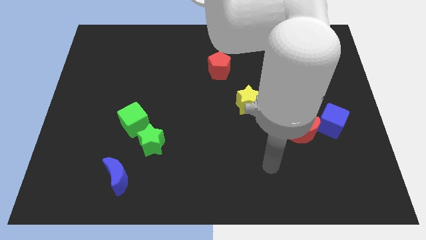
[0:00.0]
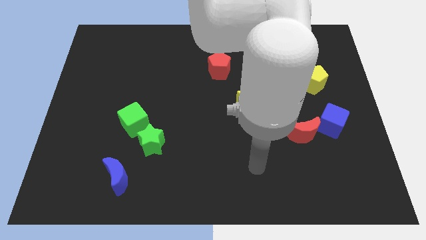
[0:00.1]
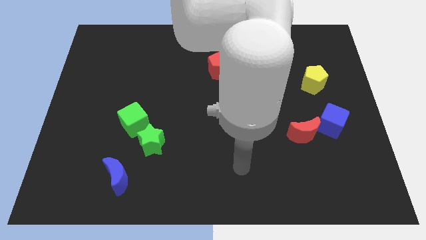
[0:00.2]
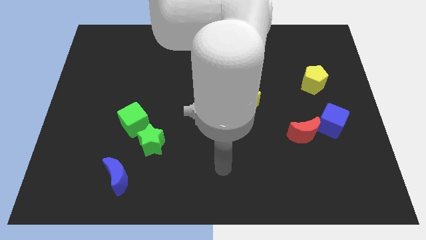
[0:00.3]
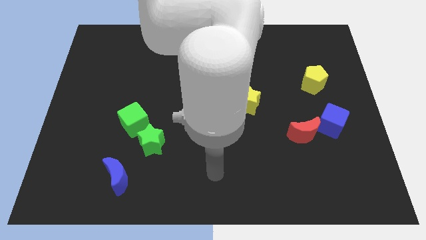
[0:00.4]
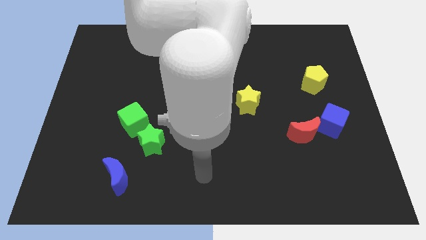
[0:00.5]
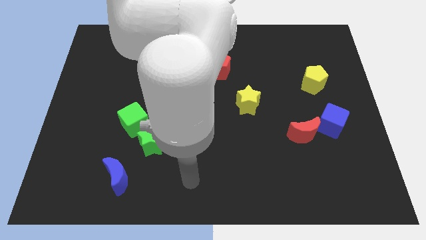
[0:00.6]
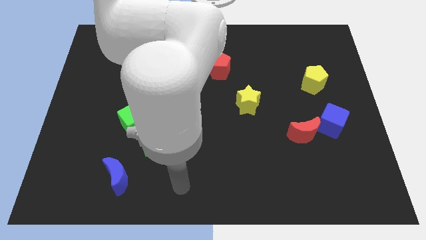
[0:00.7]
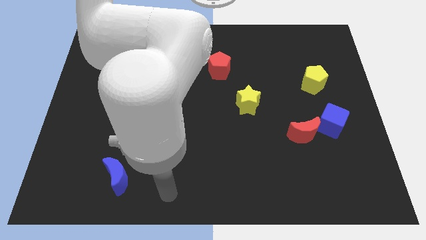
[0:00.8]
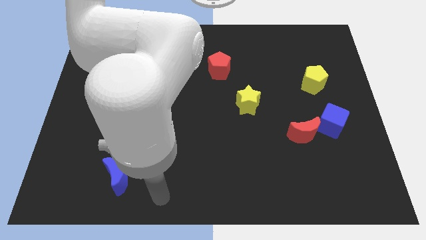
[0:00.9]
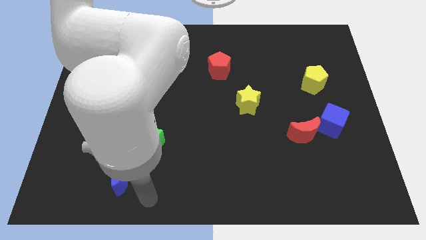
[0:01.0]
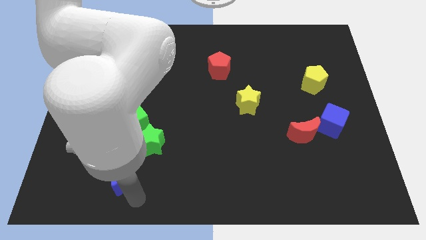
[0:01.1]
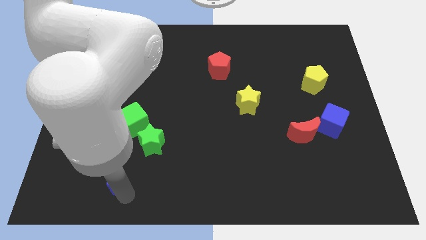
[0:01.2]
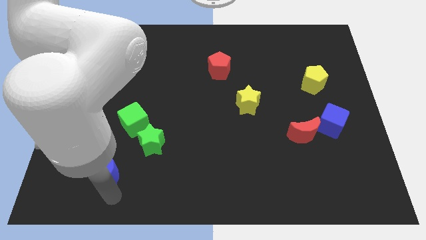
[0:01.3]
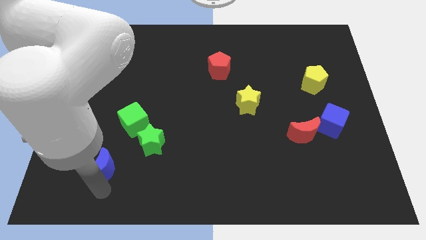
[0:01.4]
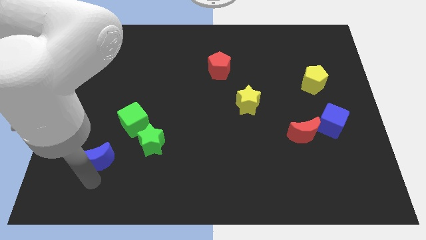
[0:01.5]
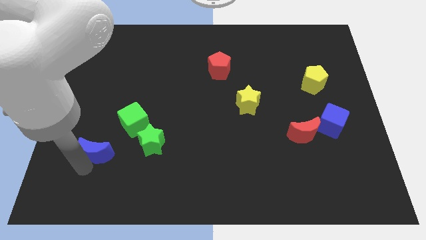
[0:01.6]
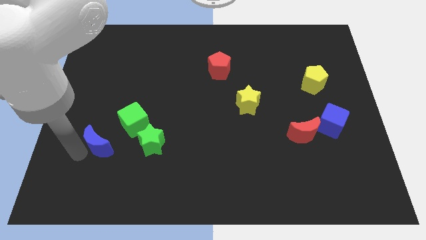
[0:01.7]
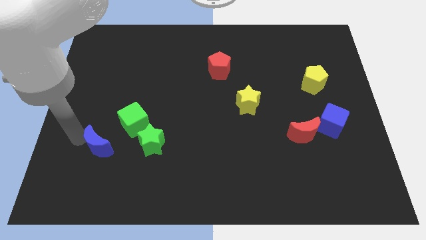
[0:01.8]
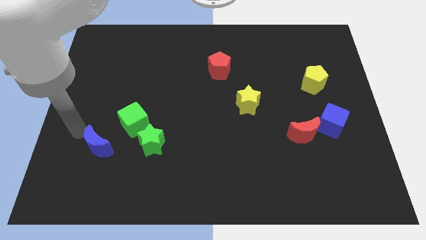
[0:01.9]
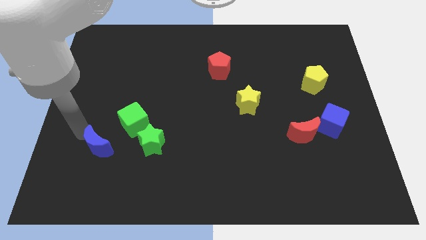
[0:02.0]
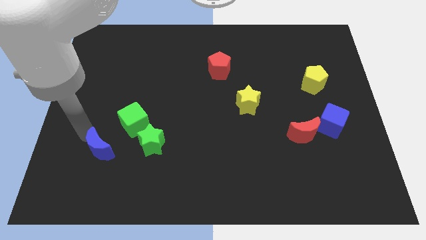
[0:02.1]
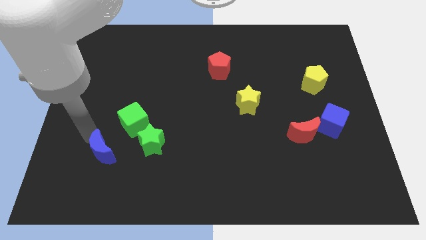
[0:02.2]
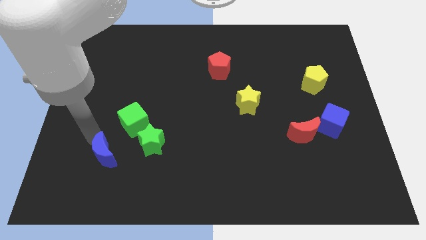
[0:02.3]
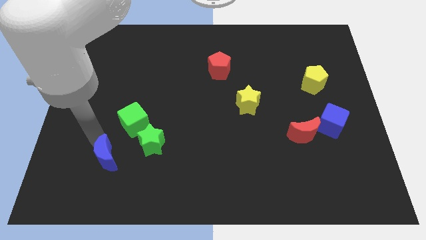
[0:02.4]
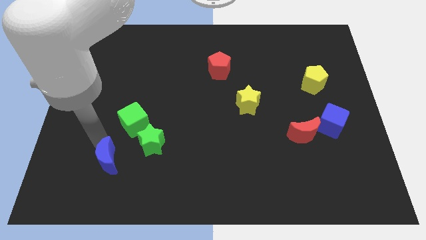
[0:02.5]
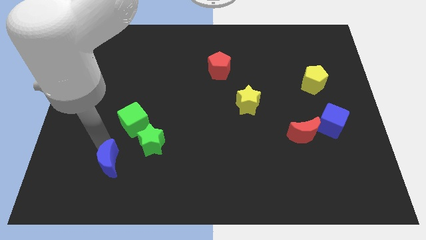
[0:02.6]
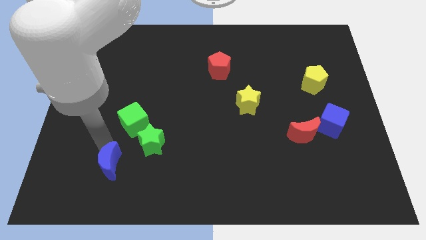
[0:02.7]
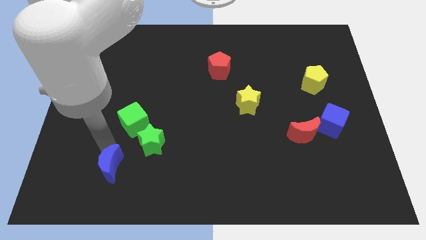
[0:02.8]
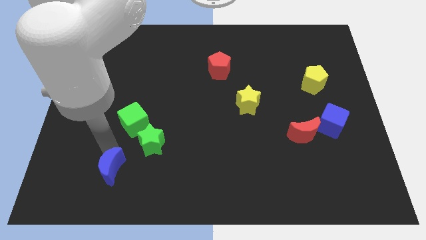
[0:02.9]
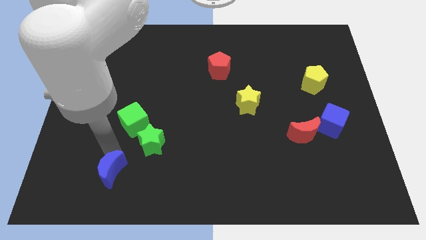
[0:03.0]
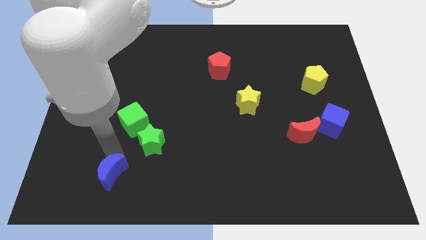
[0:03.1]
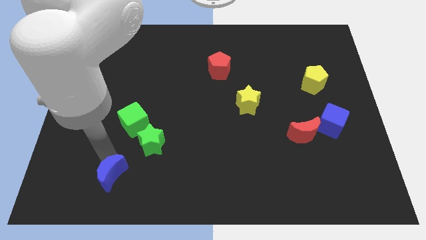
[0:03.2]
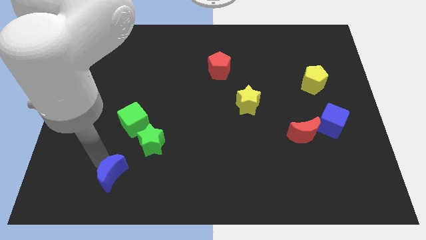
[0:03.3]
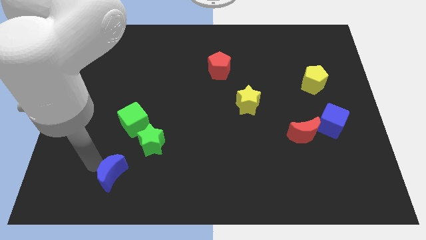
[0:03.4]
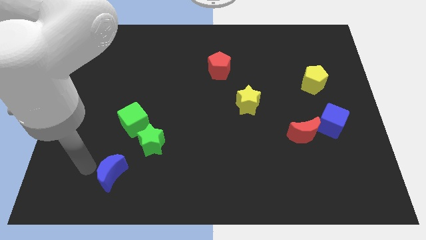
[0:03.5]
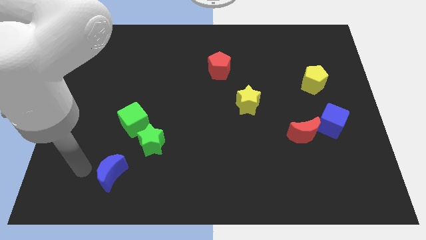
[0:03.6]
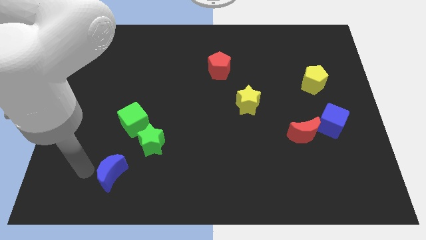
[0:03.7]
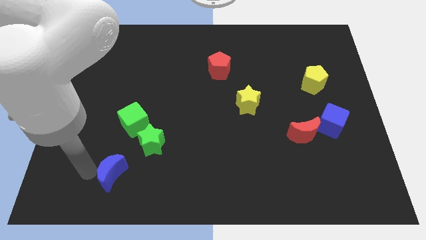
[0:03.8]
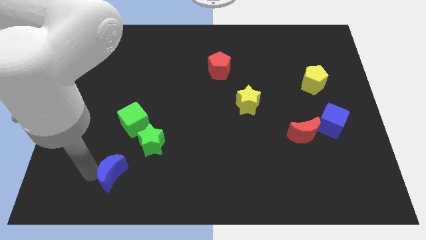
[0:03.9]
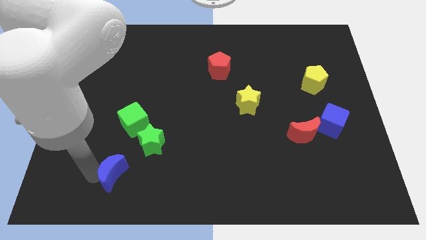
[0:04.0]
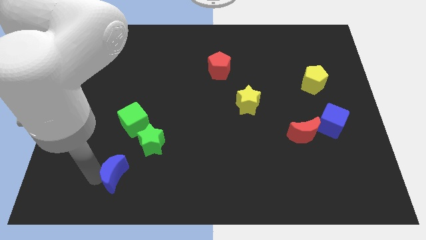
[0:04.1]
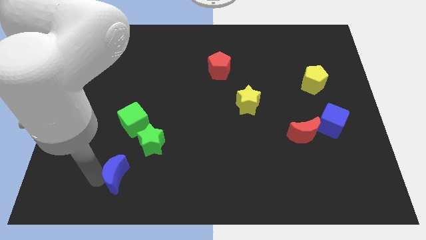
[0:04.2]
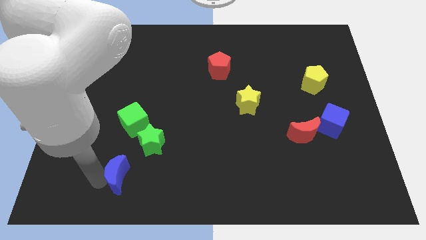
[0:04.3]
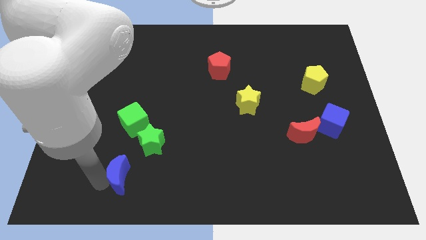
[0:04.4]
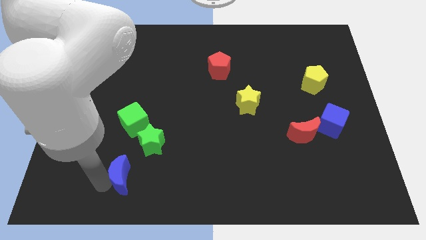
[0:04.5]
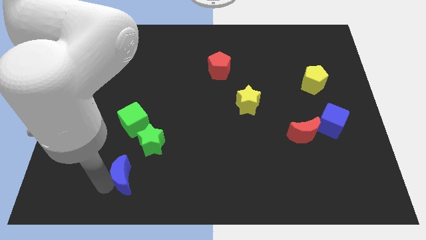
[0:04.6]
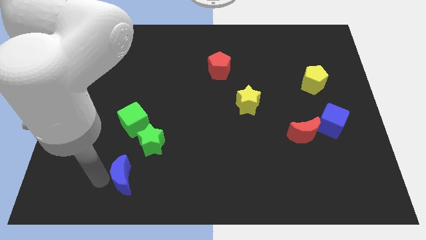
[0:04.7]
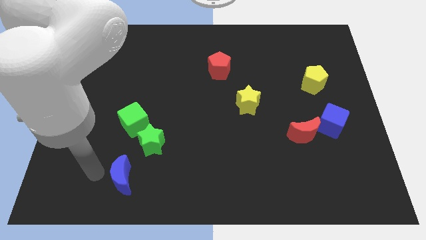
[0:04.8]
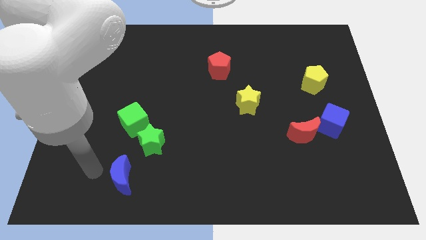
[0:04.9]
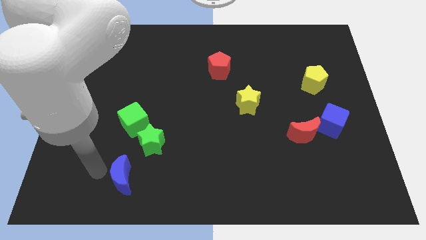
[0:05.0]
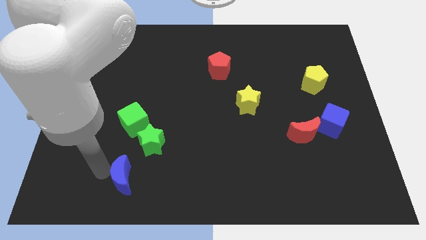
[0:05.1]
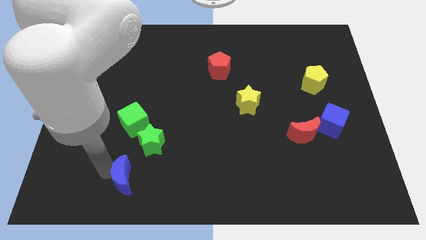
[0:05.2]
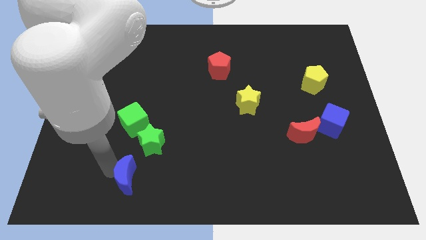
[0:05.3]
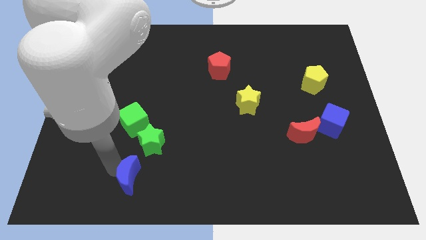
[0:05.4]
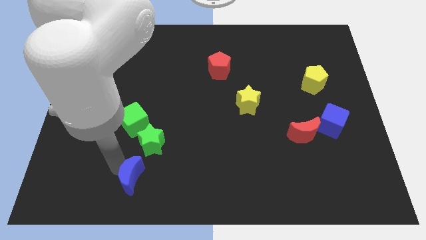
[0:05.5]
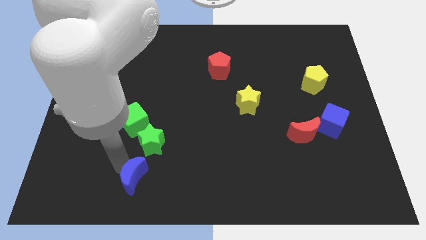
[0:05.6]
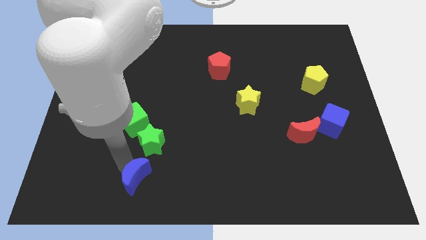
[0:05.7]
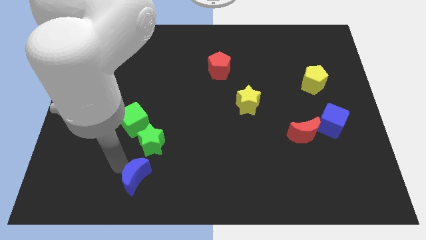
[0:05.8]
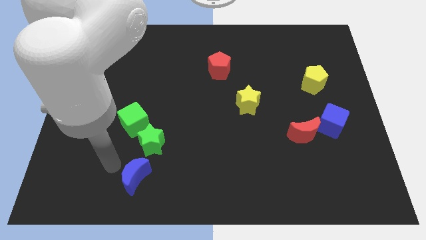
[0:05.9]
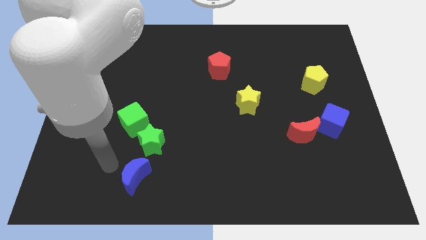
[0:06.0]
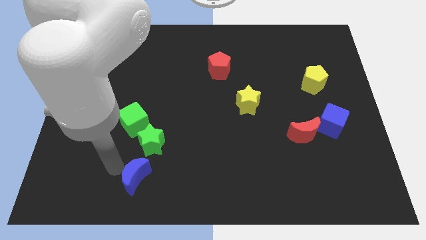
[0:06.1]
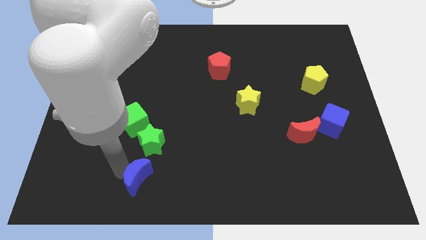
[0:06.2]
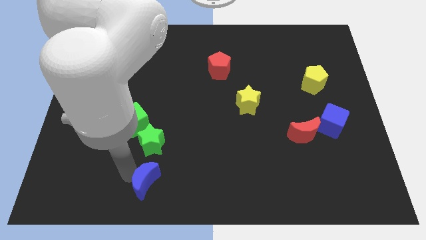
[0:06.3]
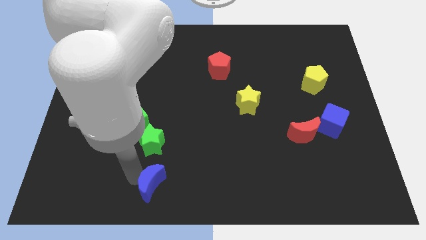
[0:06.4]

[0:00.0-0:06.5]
move the blue moon to the bottom
